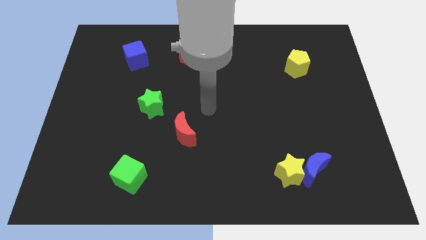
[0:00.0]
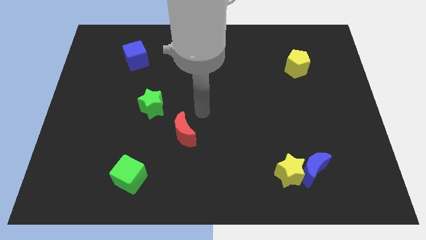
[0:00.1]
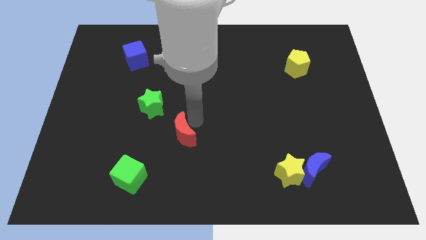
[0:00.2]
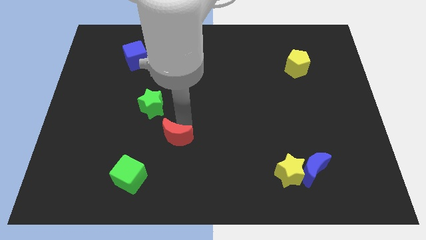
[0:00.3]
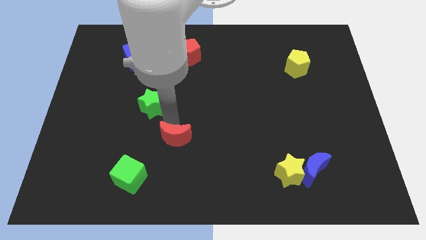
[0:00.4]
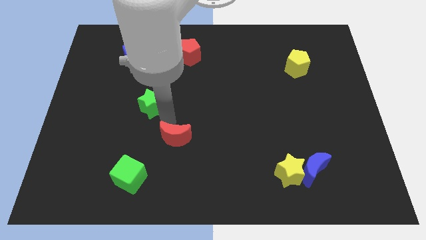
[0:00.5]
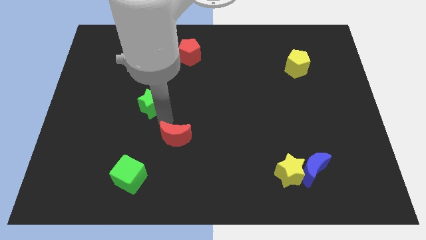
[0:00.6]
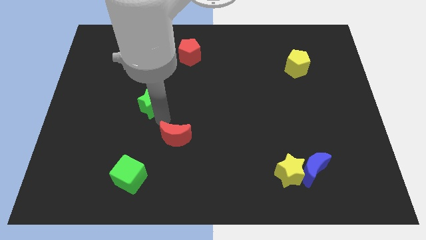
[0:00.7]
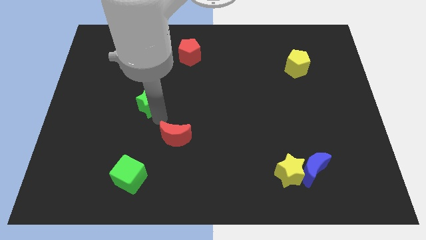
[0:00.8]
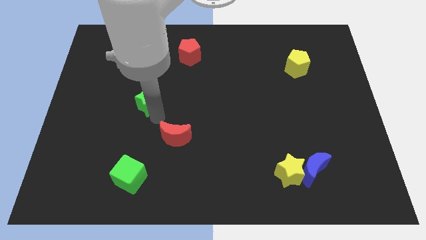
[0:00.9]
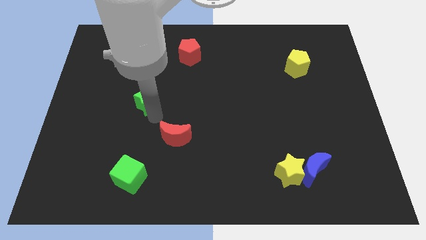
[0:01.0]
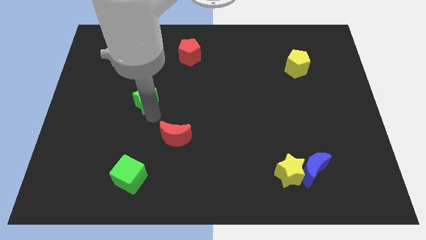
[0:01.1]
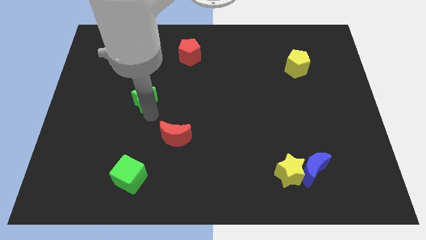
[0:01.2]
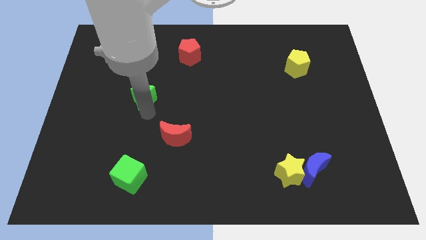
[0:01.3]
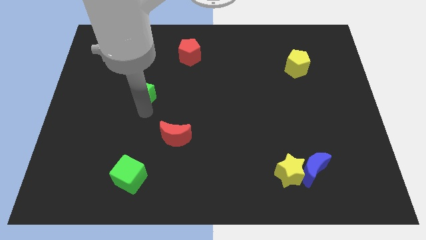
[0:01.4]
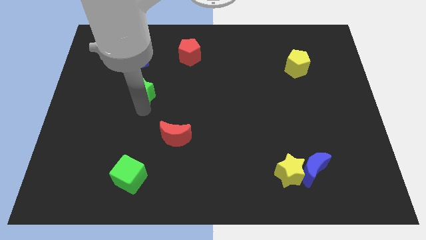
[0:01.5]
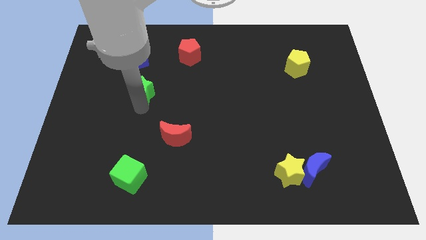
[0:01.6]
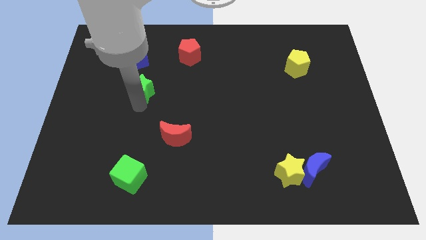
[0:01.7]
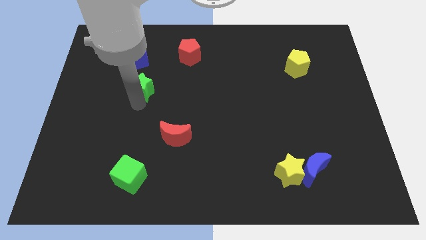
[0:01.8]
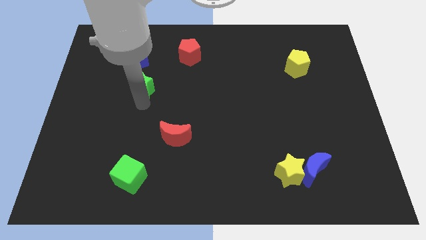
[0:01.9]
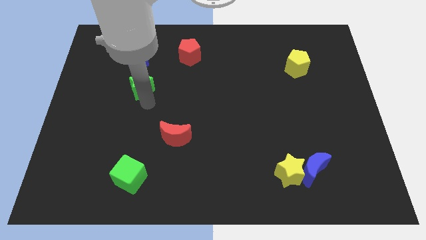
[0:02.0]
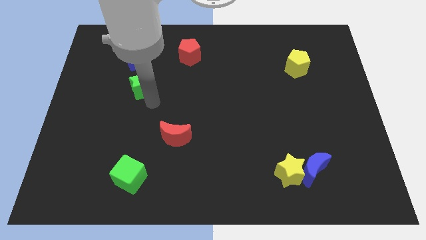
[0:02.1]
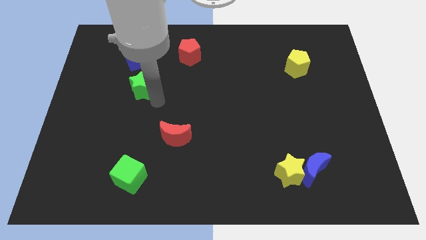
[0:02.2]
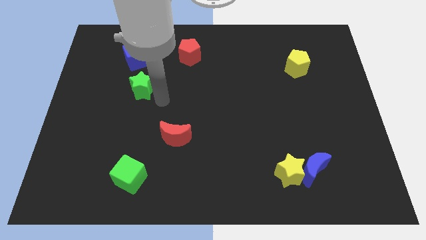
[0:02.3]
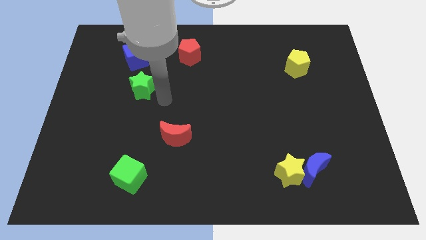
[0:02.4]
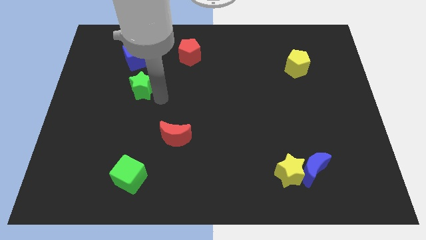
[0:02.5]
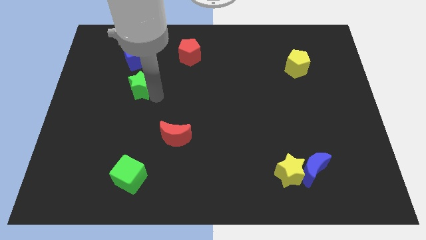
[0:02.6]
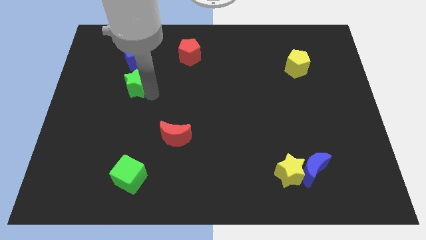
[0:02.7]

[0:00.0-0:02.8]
slightly slide the green star upwards and then to the left

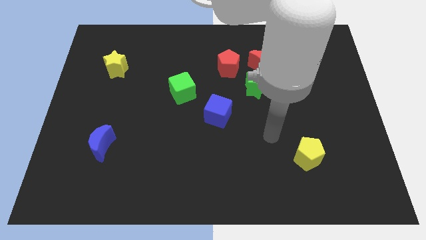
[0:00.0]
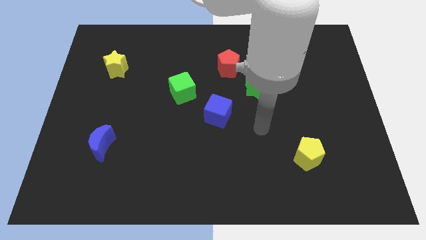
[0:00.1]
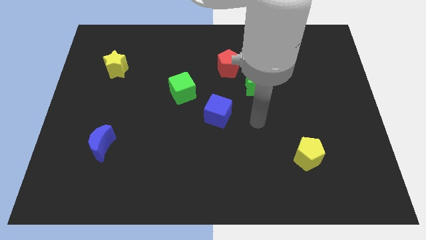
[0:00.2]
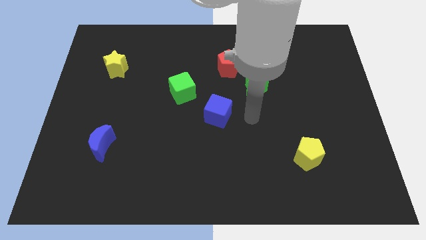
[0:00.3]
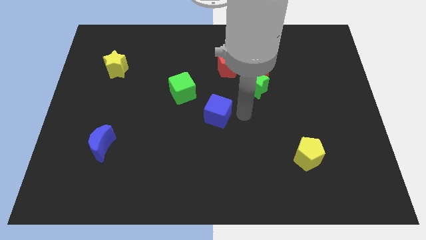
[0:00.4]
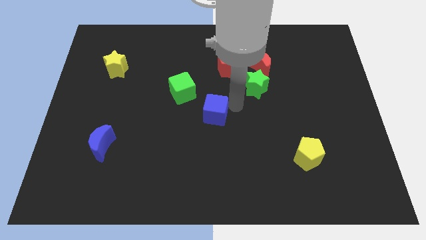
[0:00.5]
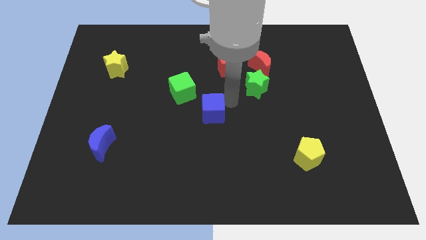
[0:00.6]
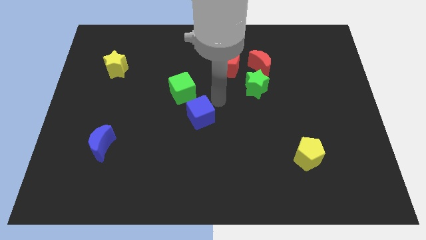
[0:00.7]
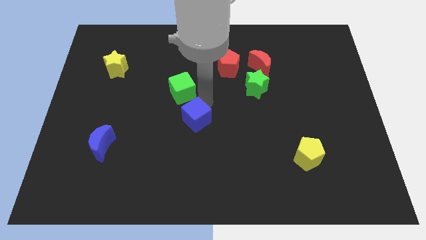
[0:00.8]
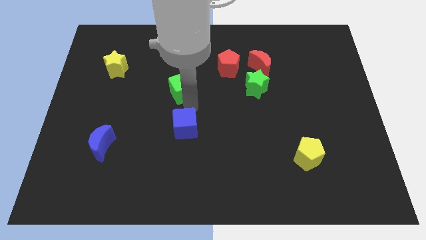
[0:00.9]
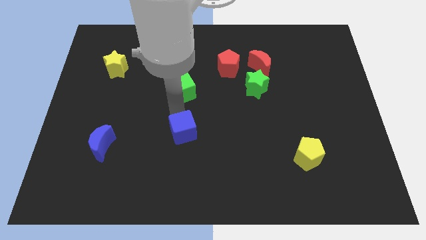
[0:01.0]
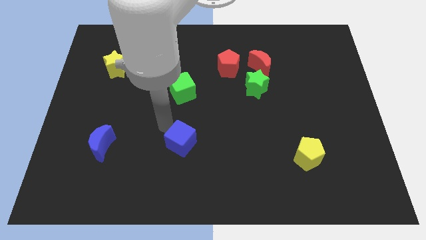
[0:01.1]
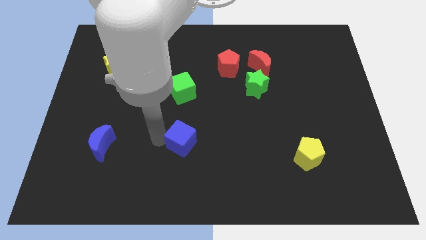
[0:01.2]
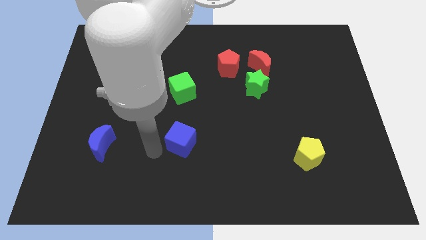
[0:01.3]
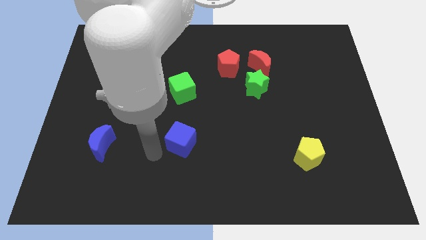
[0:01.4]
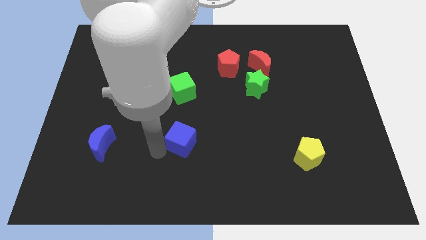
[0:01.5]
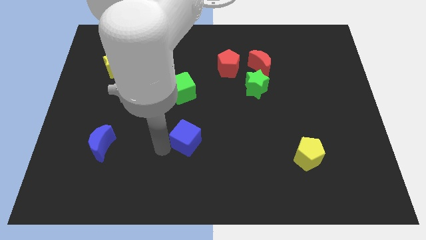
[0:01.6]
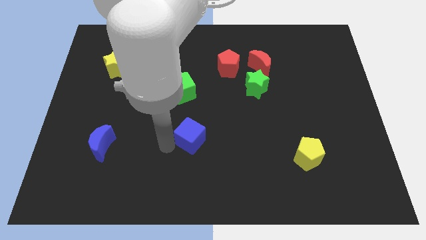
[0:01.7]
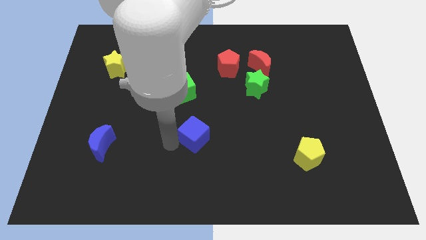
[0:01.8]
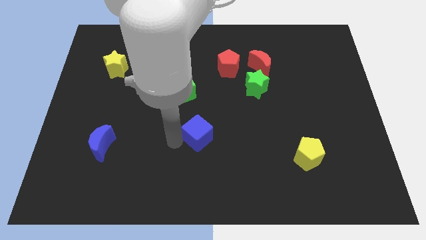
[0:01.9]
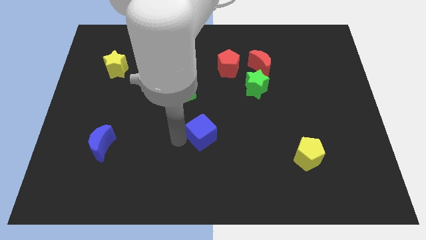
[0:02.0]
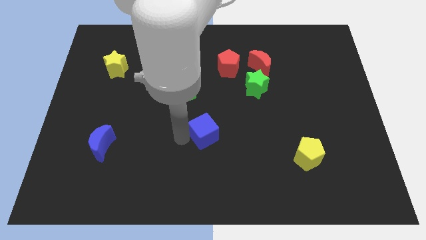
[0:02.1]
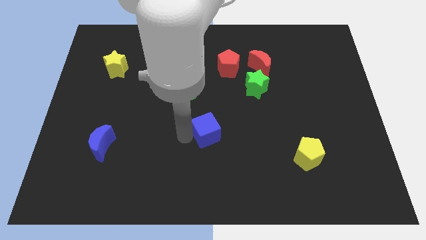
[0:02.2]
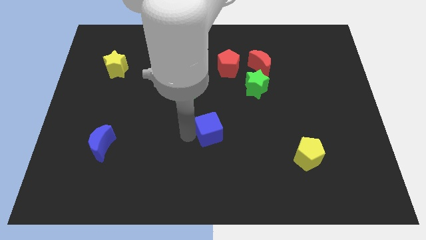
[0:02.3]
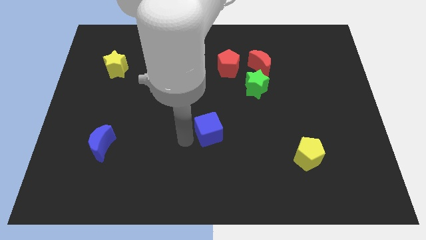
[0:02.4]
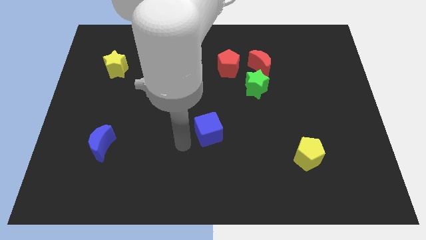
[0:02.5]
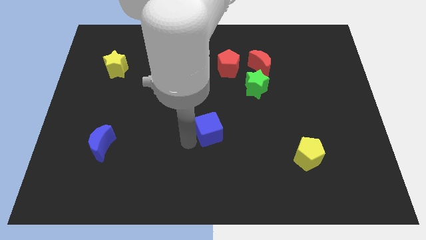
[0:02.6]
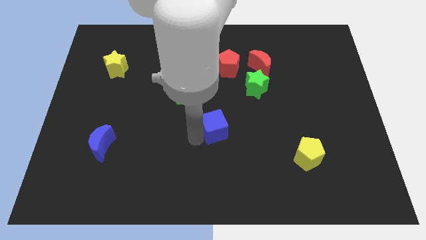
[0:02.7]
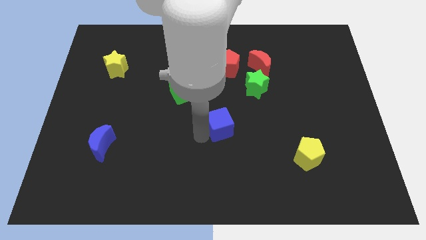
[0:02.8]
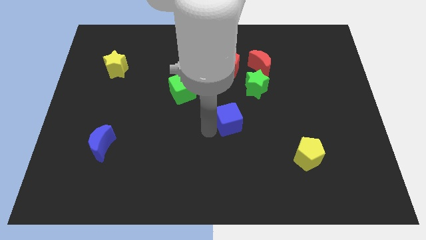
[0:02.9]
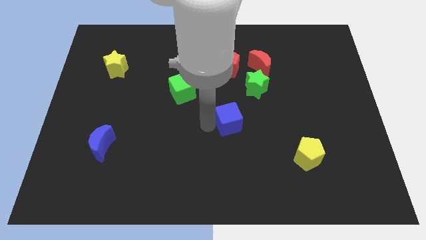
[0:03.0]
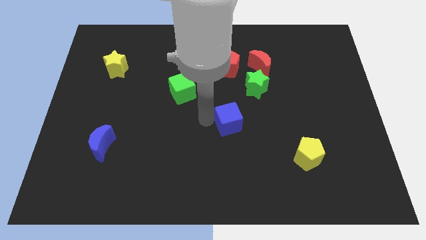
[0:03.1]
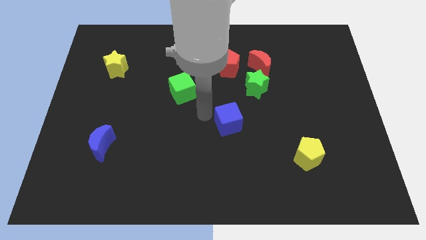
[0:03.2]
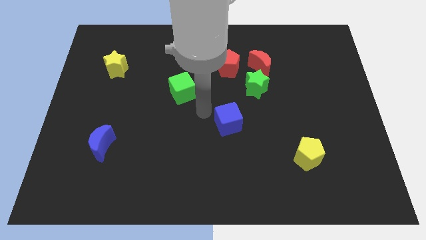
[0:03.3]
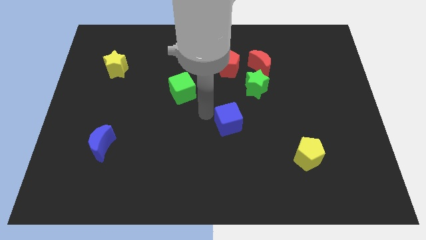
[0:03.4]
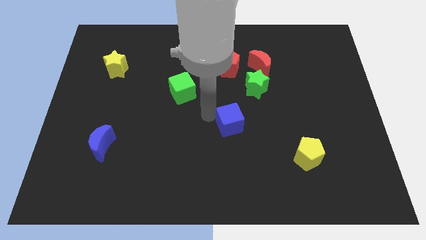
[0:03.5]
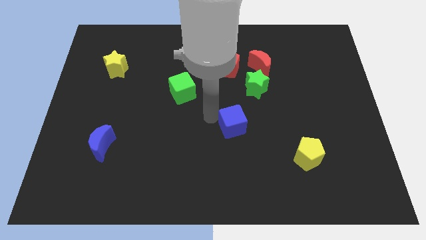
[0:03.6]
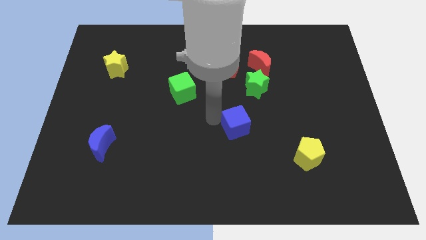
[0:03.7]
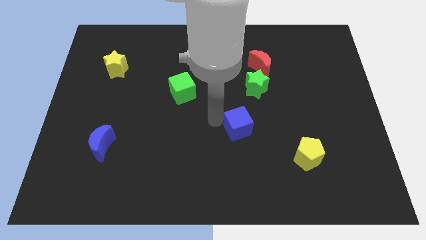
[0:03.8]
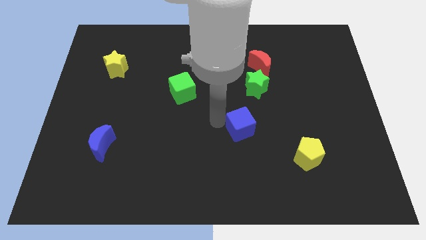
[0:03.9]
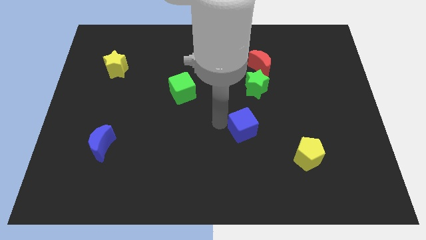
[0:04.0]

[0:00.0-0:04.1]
slide the blue cube a little bit down and right

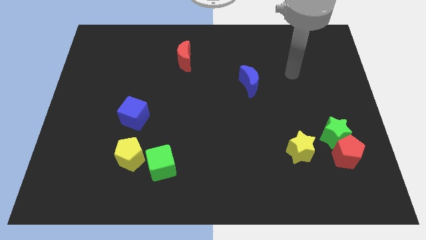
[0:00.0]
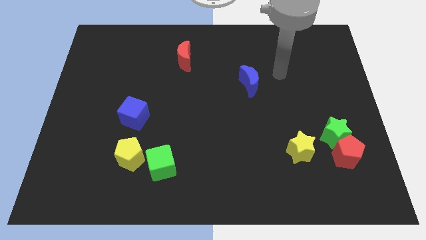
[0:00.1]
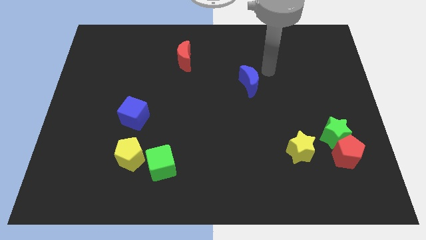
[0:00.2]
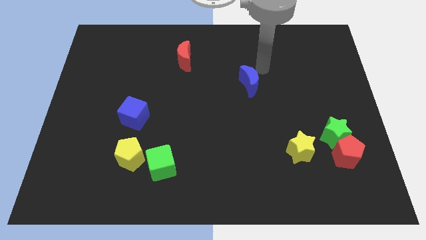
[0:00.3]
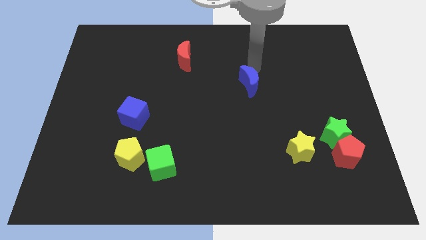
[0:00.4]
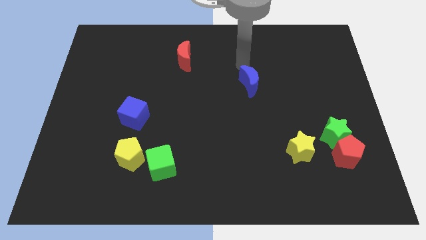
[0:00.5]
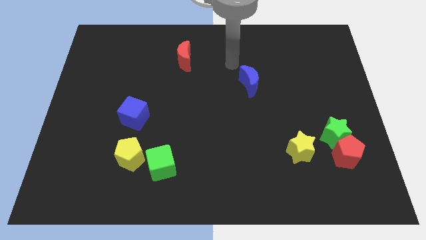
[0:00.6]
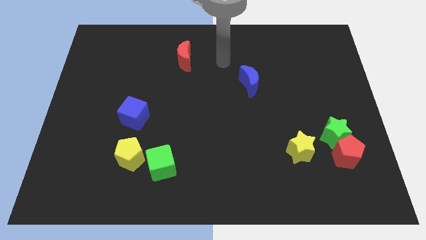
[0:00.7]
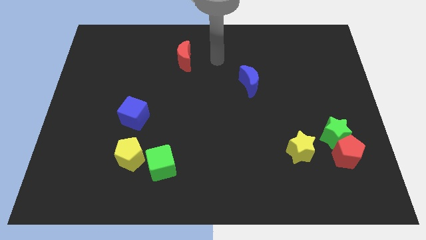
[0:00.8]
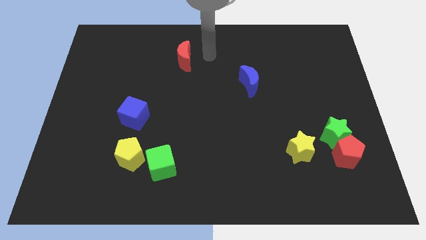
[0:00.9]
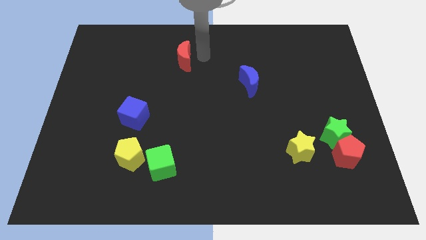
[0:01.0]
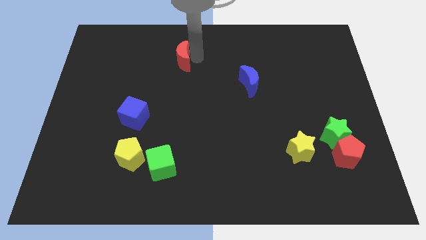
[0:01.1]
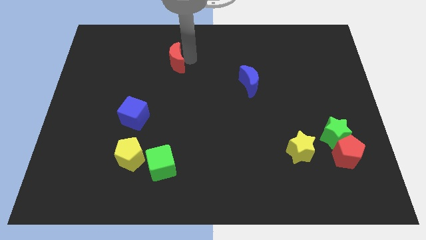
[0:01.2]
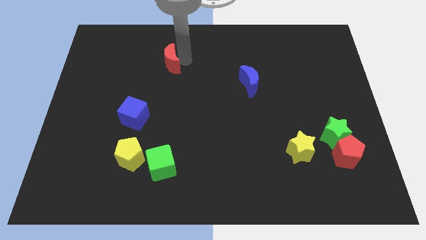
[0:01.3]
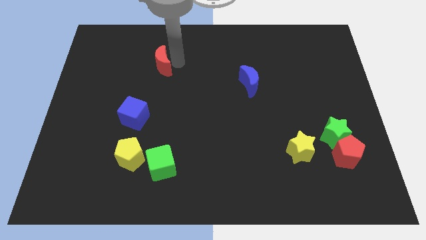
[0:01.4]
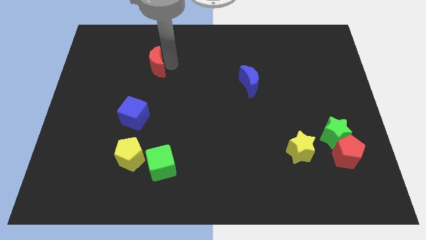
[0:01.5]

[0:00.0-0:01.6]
move the red moon a little left
